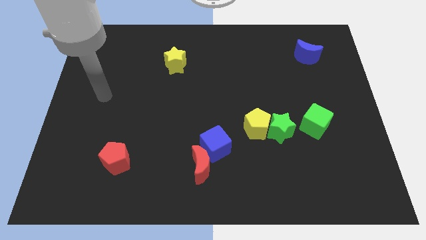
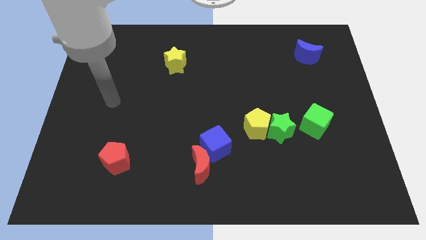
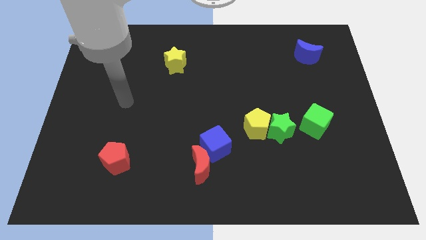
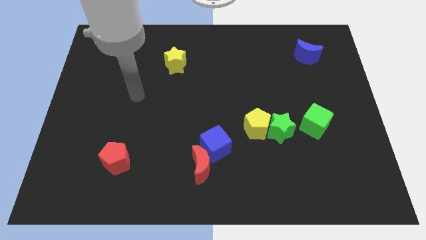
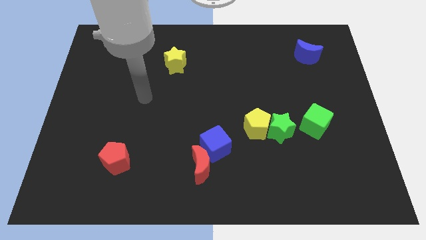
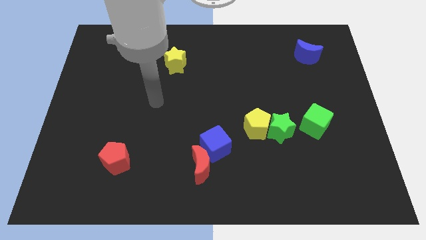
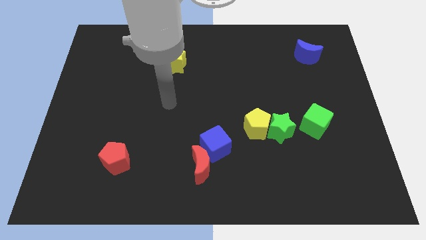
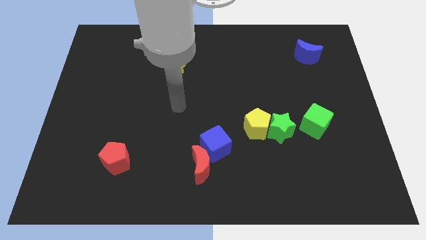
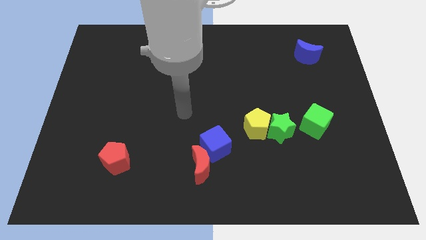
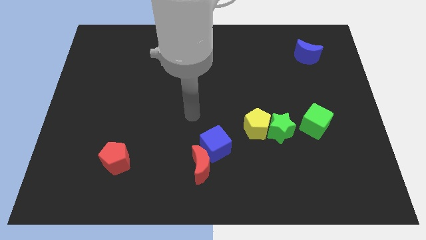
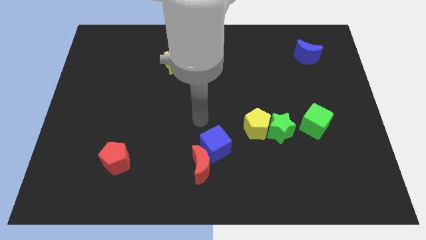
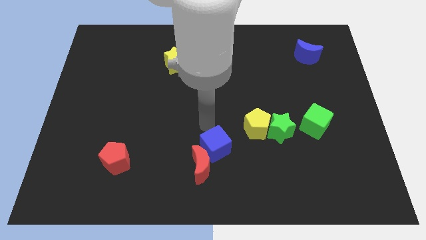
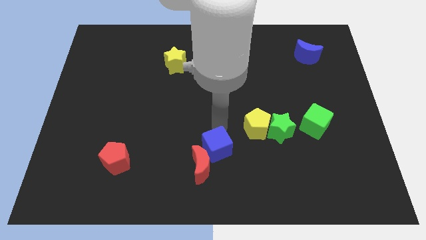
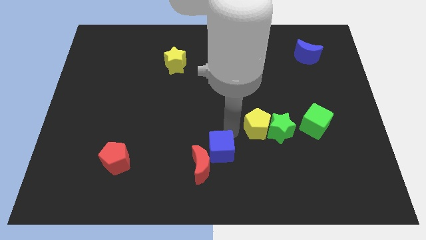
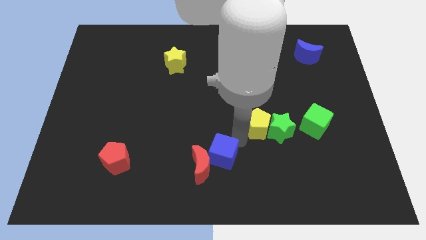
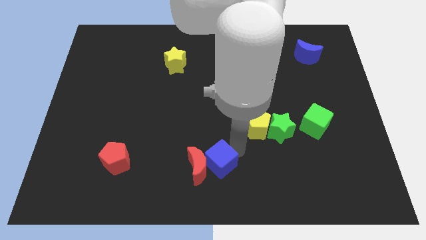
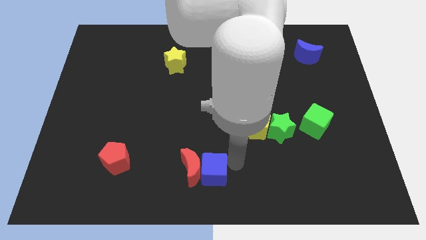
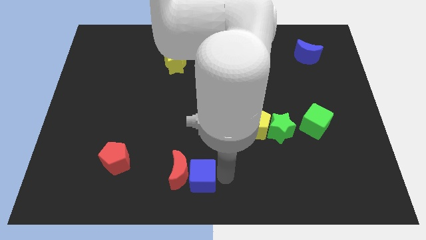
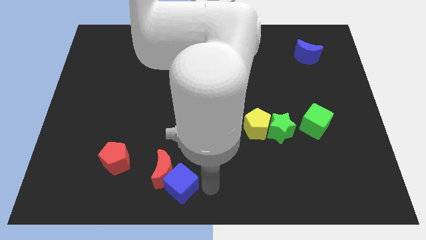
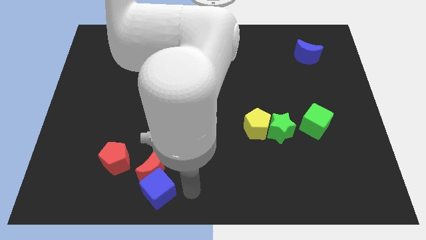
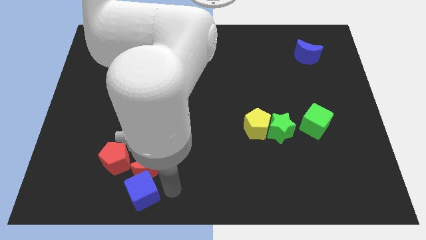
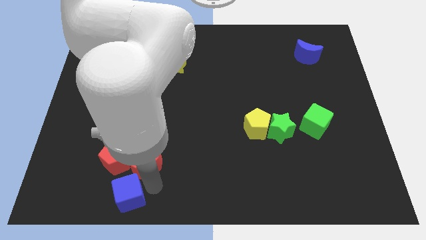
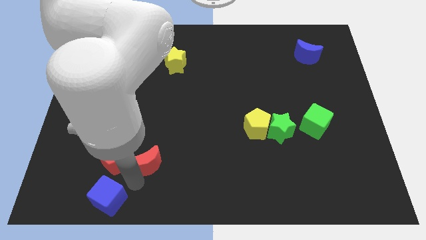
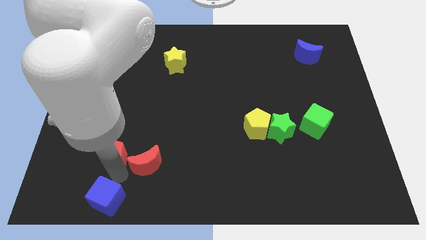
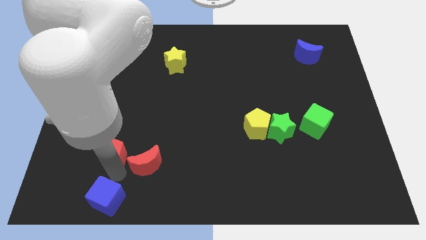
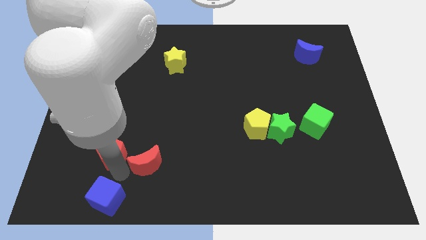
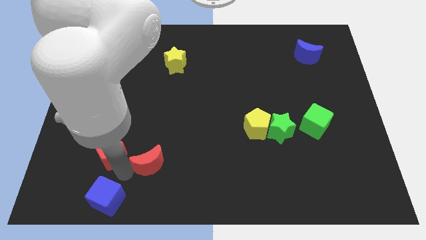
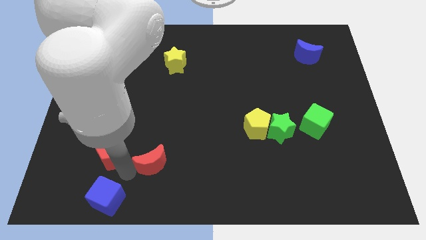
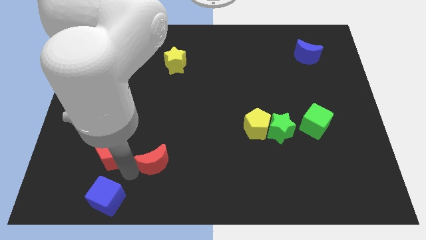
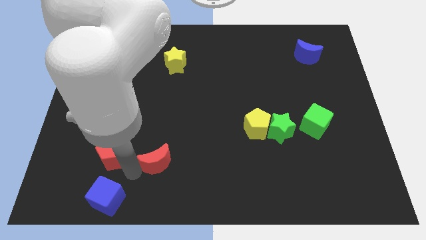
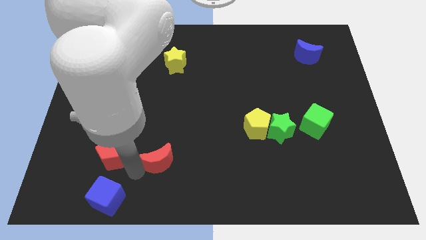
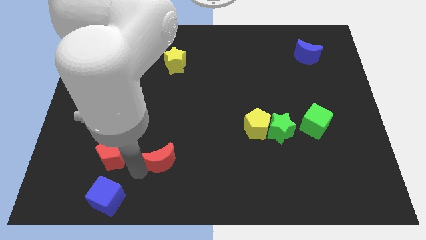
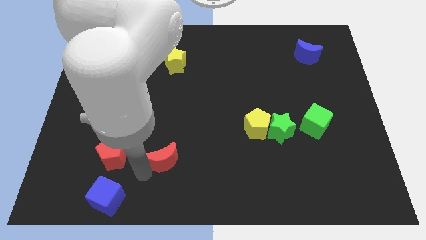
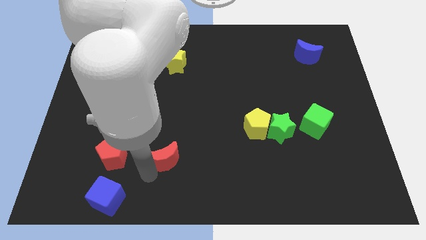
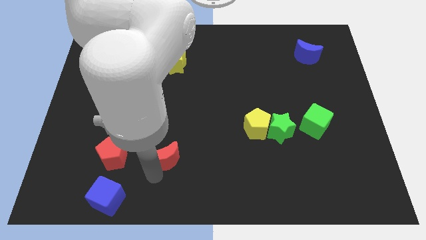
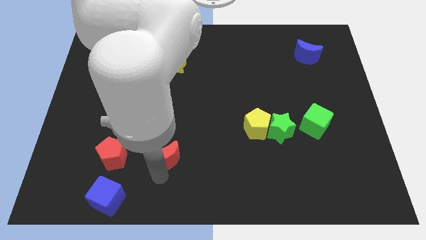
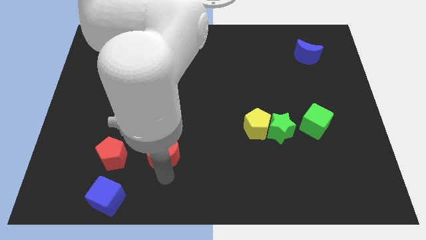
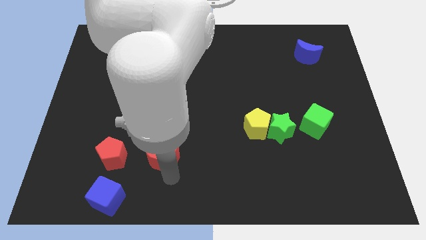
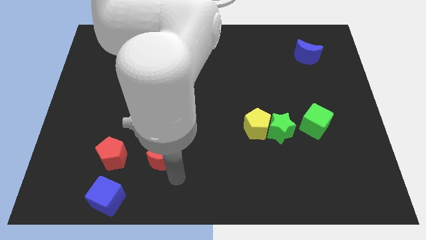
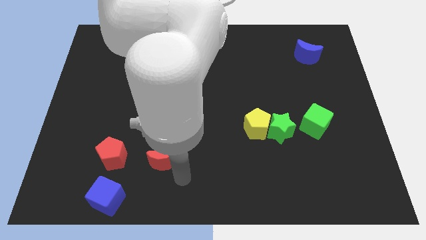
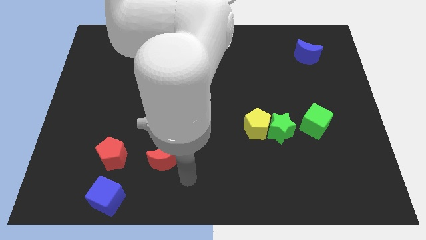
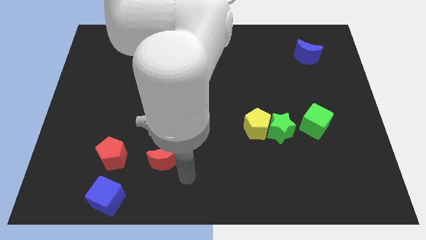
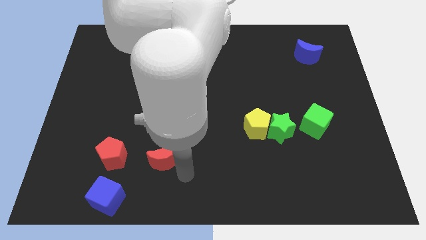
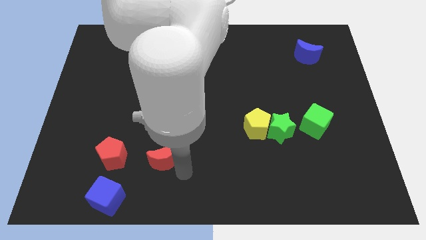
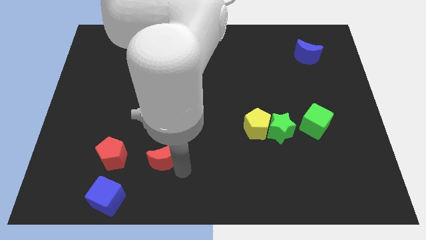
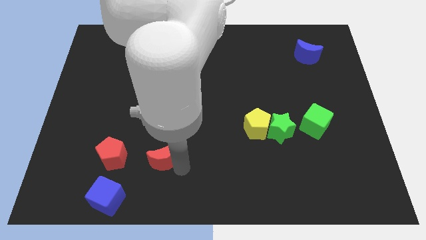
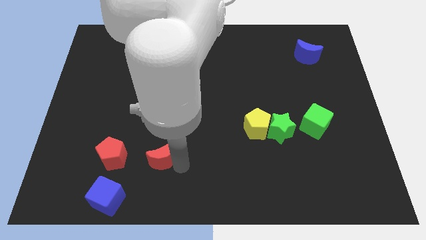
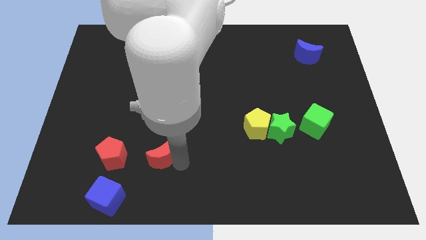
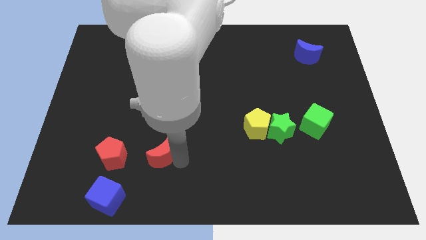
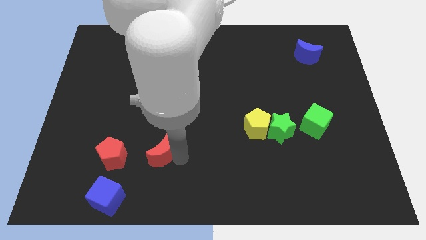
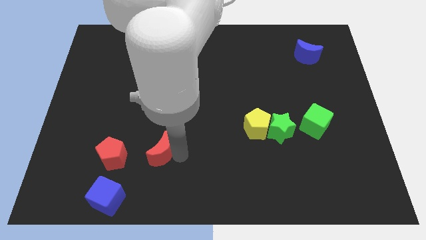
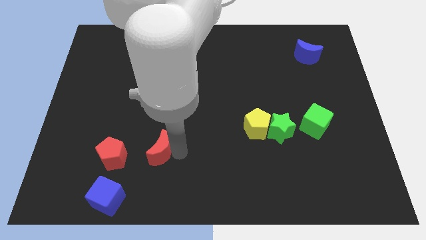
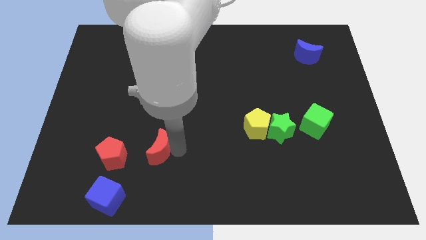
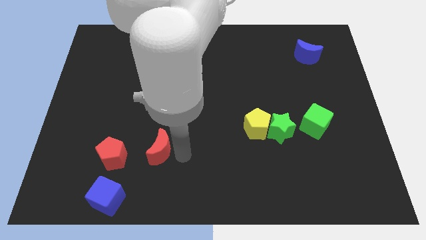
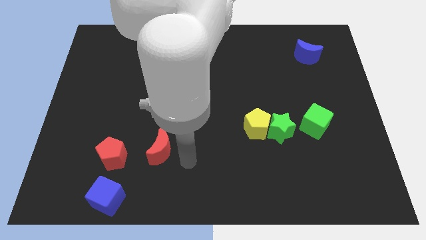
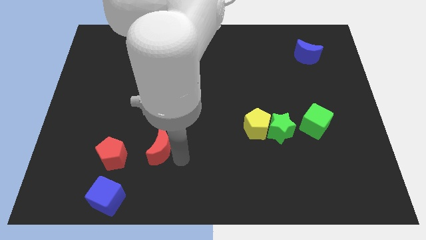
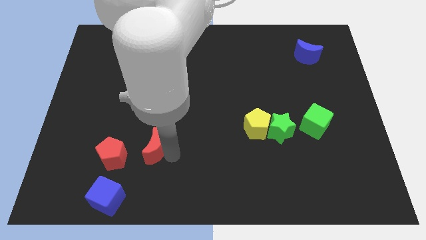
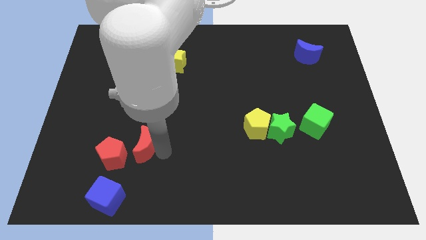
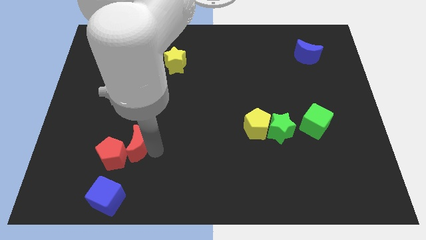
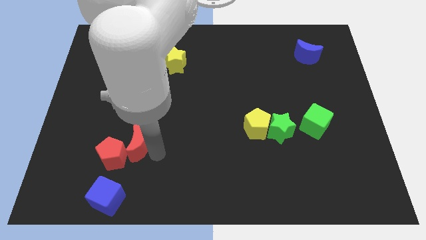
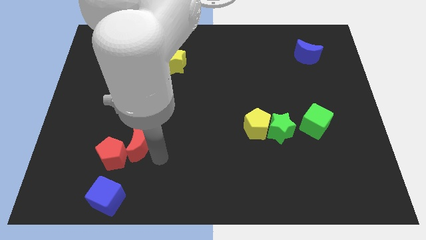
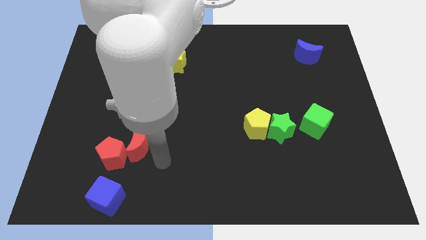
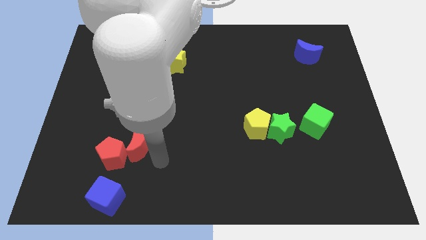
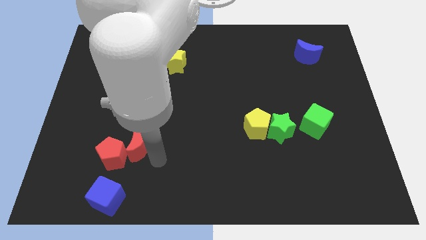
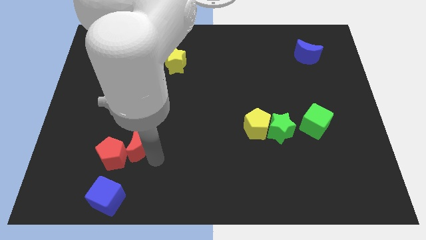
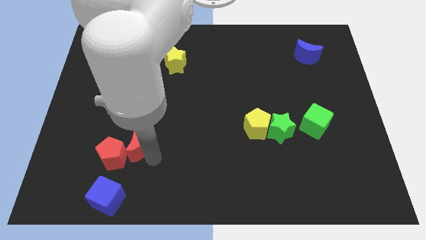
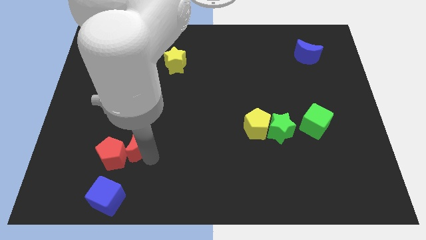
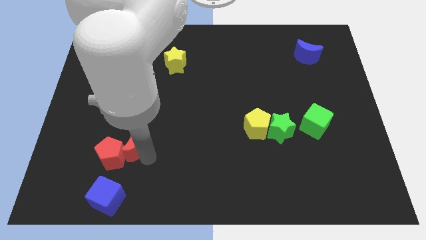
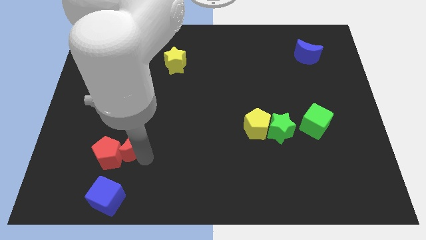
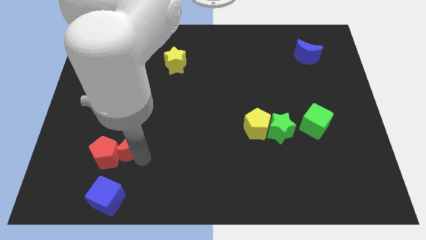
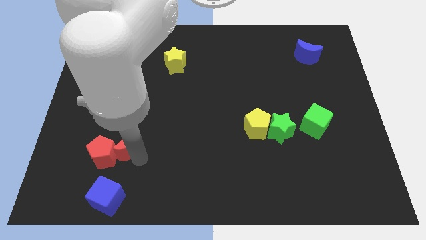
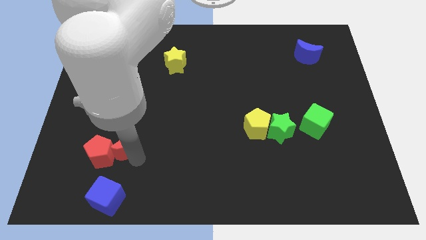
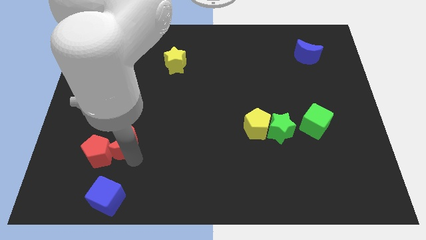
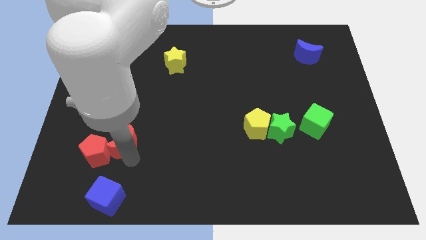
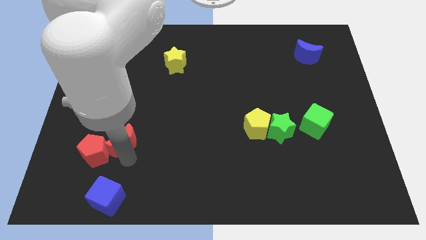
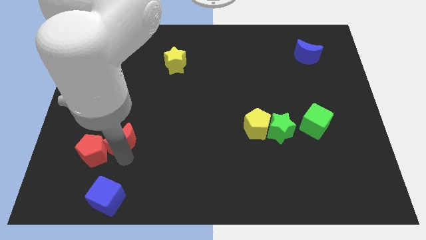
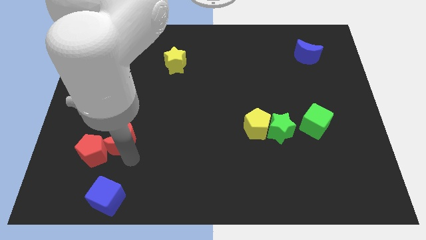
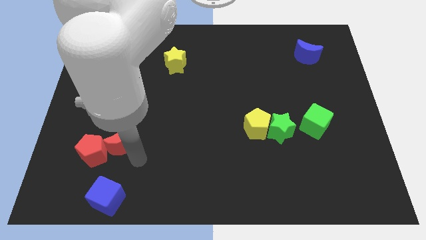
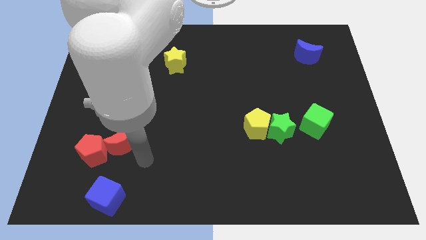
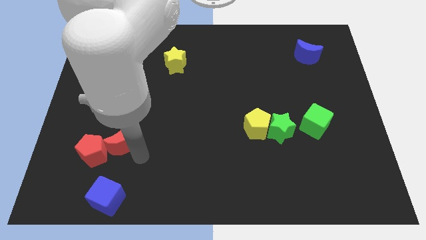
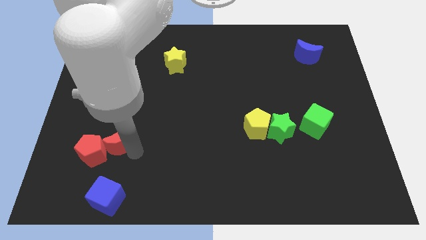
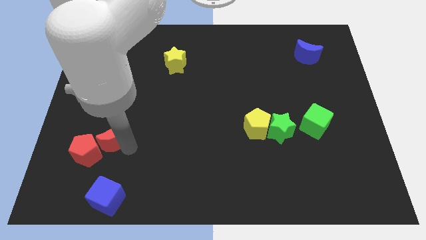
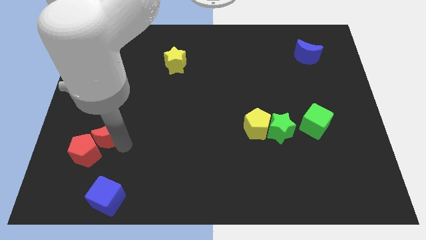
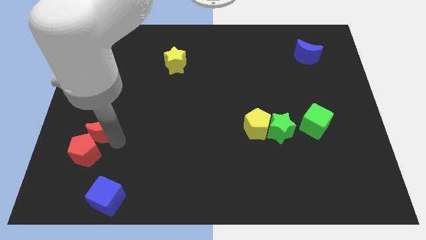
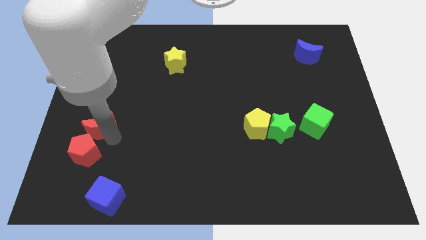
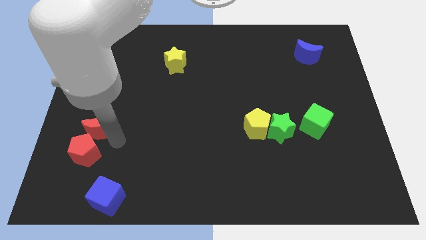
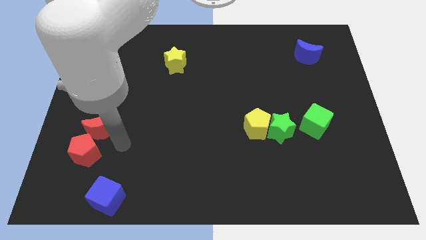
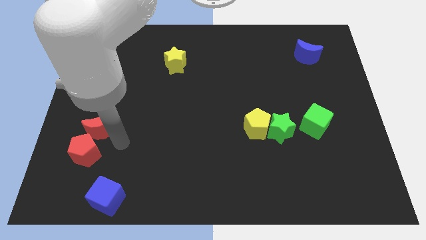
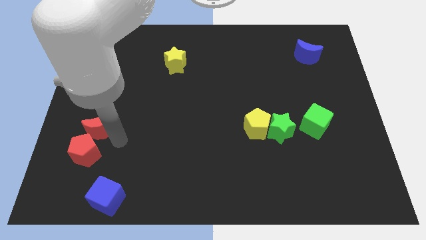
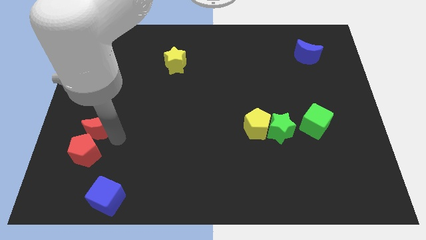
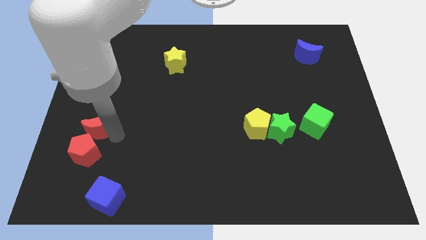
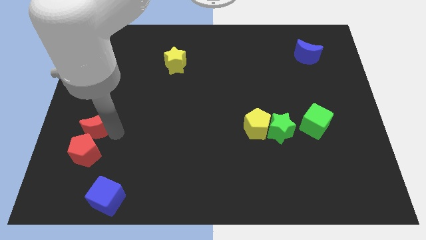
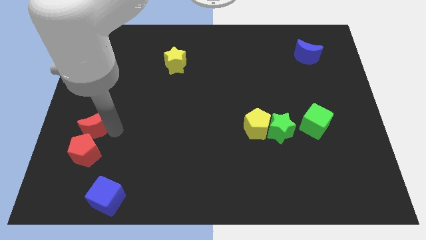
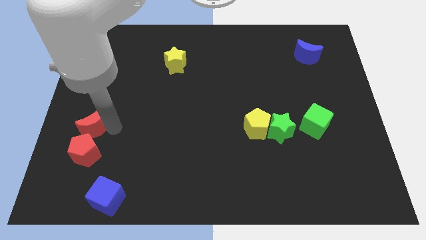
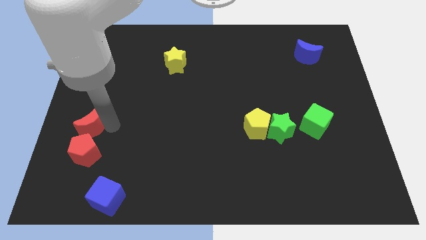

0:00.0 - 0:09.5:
slide the red moon to the left side of the board
